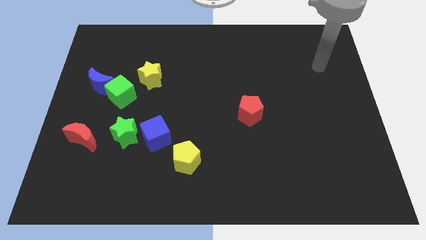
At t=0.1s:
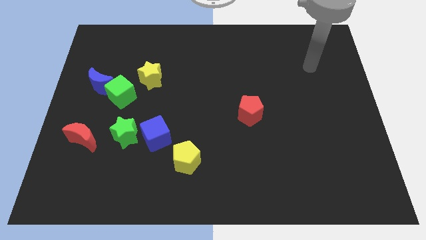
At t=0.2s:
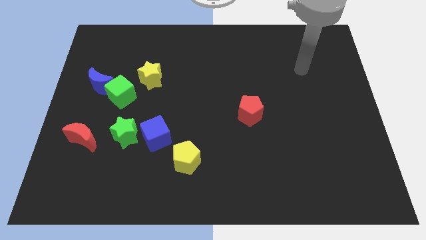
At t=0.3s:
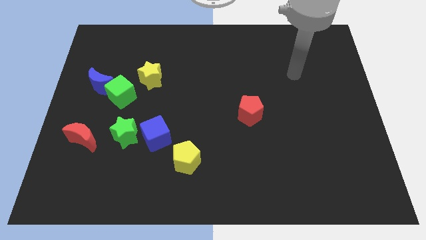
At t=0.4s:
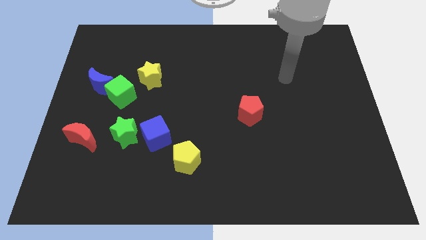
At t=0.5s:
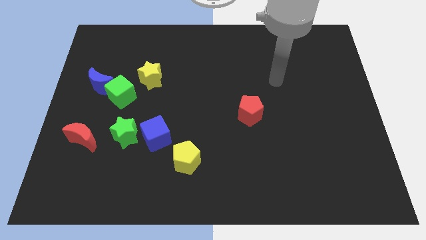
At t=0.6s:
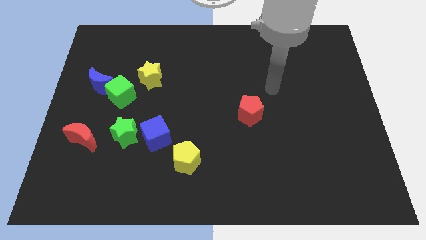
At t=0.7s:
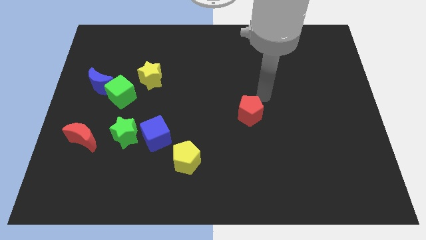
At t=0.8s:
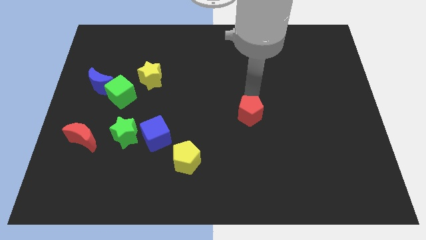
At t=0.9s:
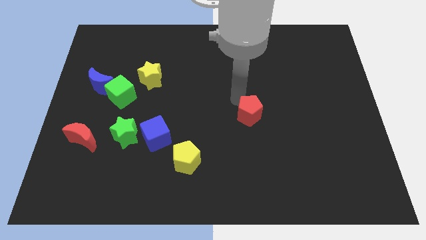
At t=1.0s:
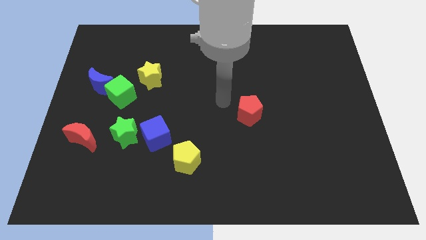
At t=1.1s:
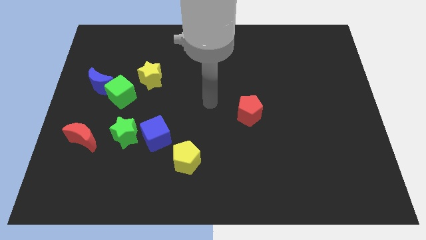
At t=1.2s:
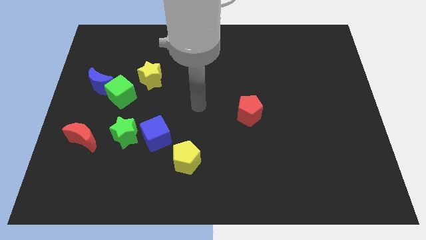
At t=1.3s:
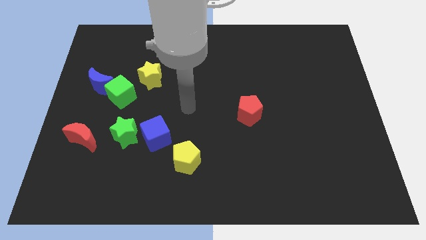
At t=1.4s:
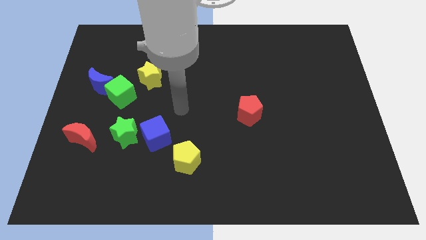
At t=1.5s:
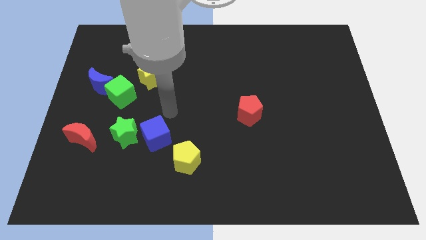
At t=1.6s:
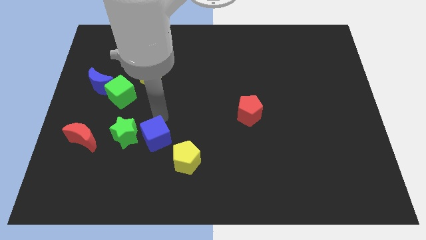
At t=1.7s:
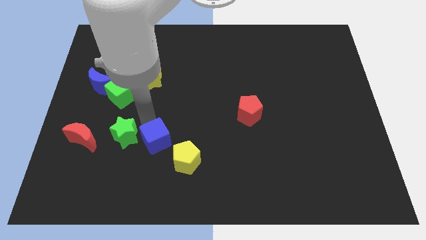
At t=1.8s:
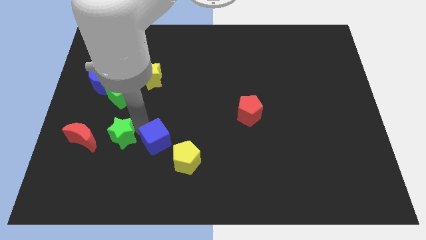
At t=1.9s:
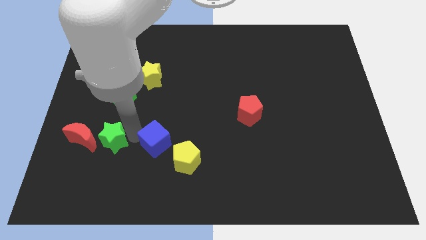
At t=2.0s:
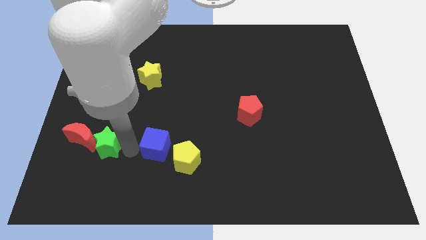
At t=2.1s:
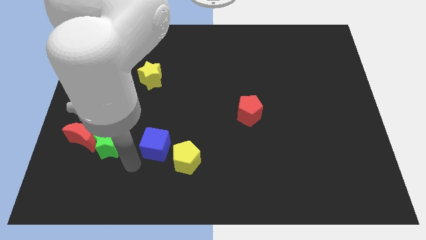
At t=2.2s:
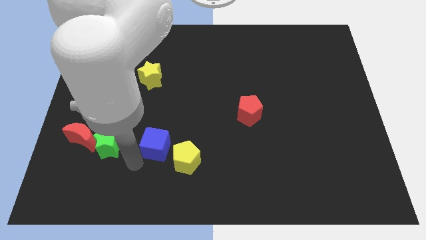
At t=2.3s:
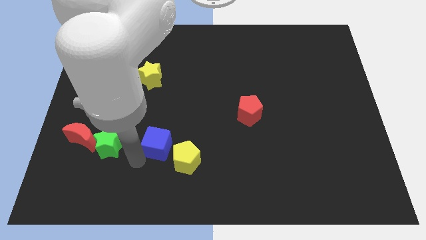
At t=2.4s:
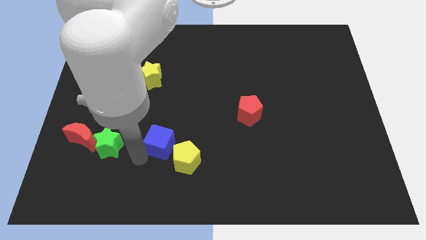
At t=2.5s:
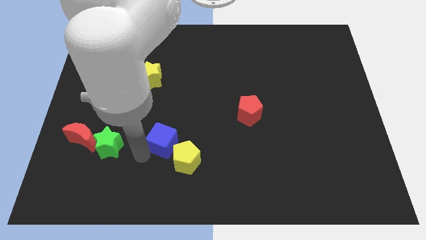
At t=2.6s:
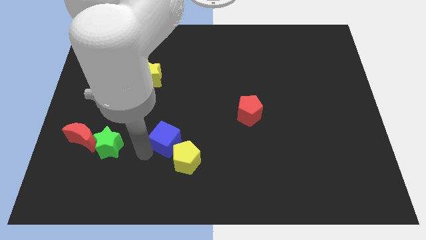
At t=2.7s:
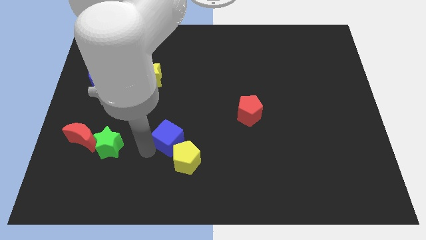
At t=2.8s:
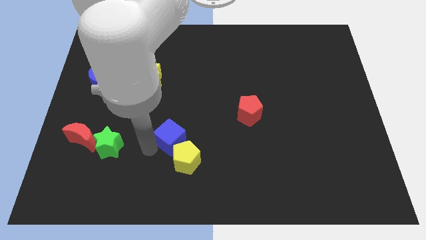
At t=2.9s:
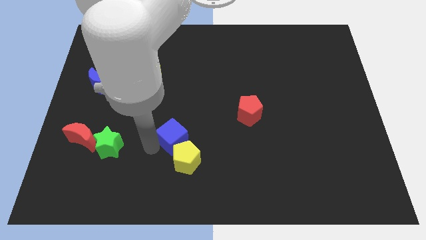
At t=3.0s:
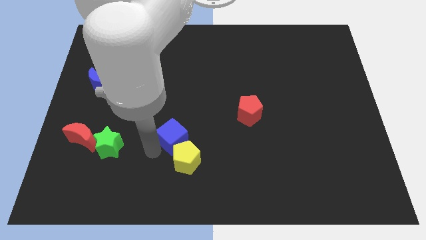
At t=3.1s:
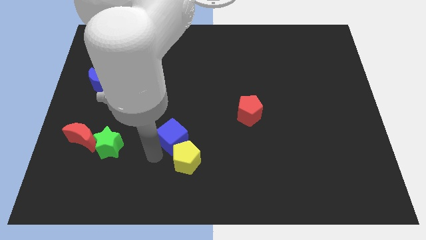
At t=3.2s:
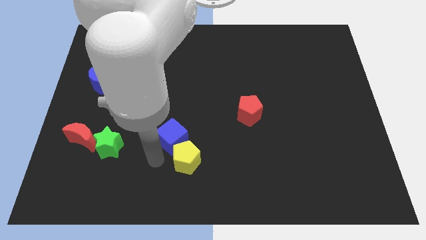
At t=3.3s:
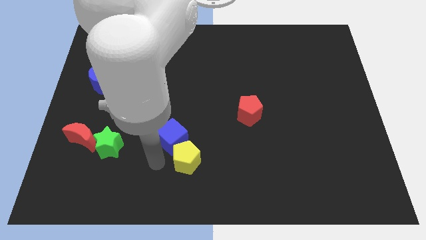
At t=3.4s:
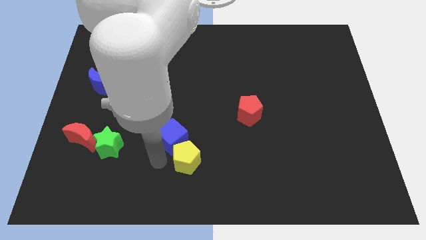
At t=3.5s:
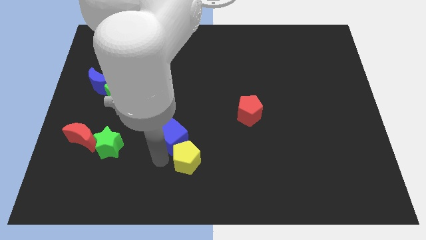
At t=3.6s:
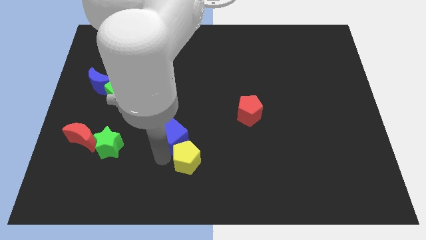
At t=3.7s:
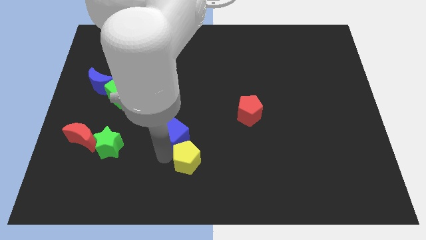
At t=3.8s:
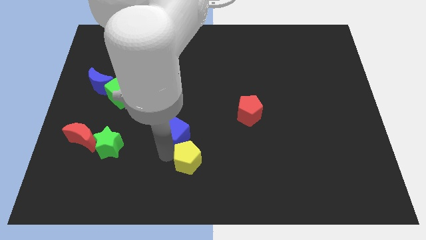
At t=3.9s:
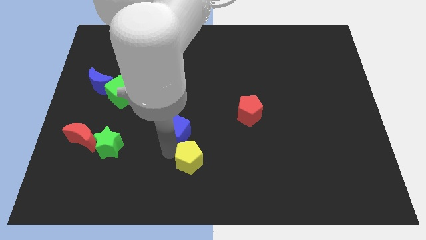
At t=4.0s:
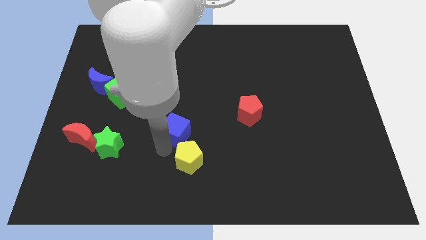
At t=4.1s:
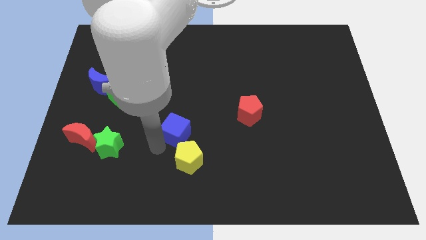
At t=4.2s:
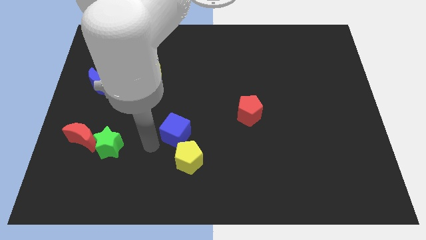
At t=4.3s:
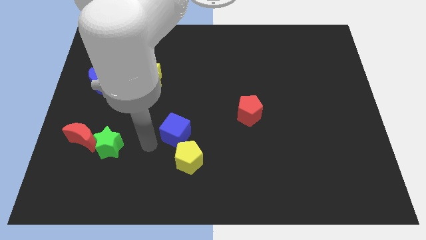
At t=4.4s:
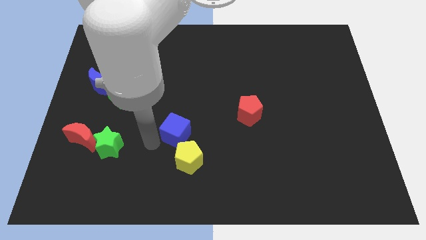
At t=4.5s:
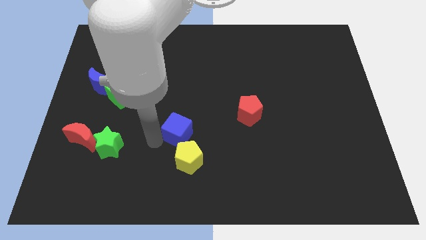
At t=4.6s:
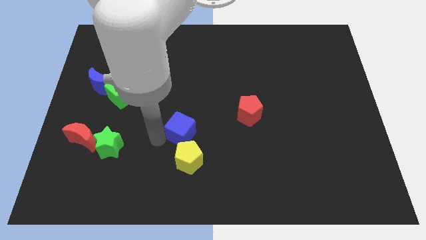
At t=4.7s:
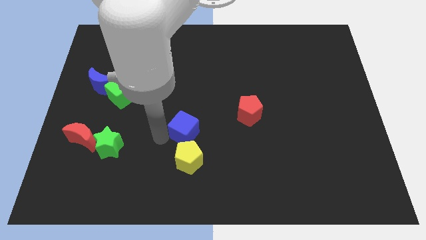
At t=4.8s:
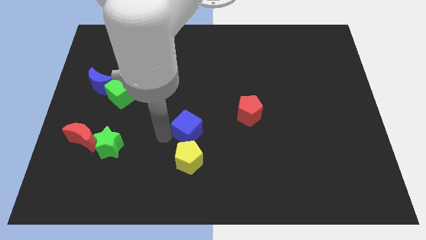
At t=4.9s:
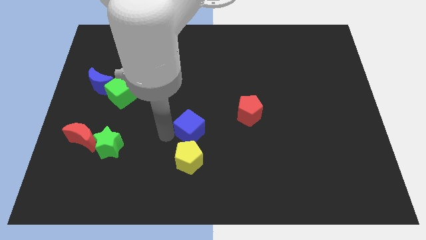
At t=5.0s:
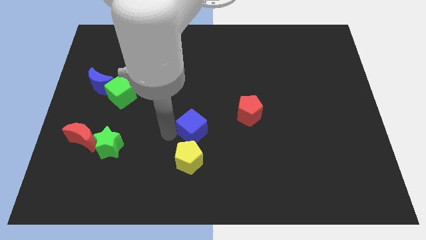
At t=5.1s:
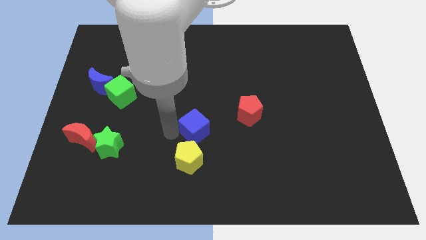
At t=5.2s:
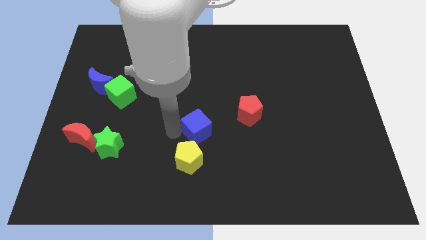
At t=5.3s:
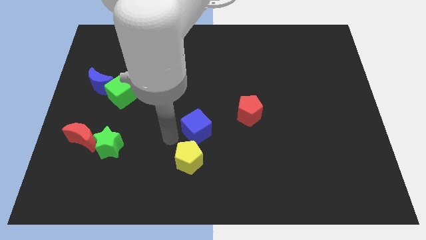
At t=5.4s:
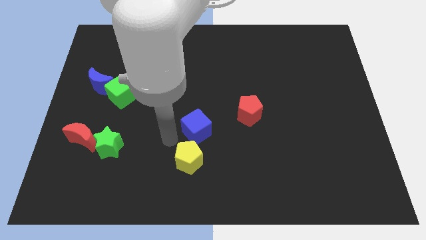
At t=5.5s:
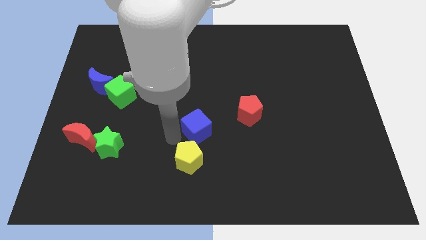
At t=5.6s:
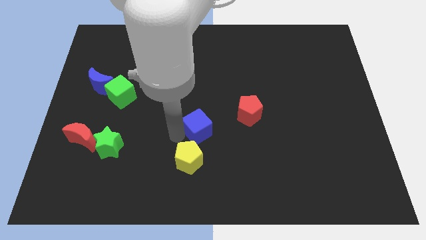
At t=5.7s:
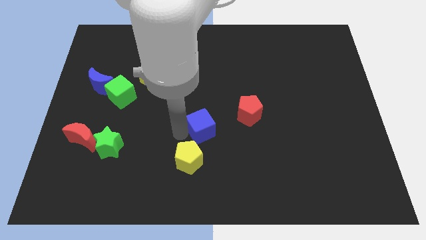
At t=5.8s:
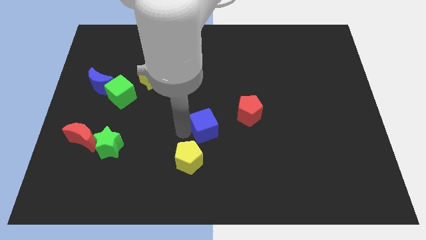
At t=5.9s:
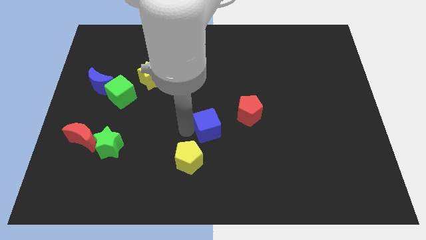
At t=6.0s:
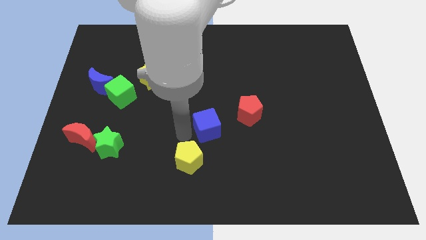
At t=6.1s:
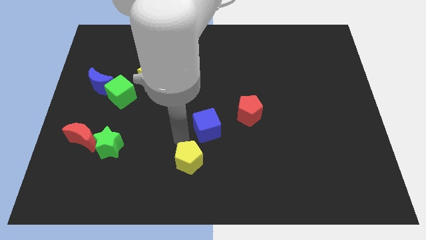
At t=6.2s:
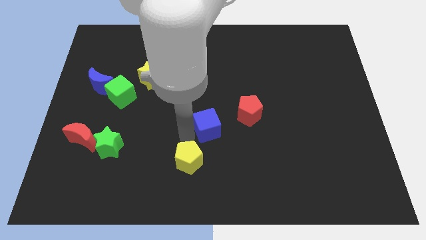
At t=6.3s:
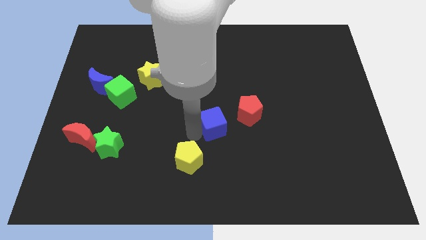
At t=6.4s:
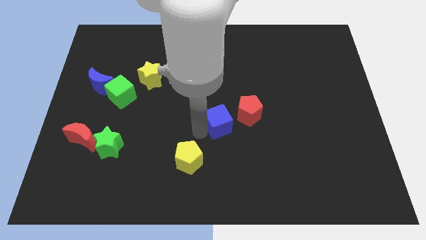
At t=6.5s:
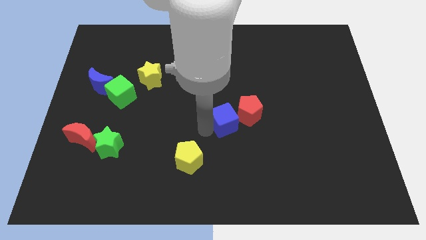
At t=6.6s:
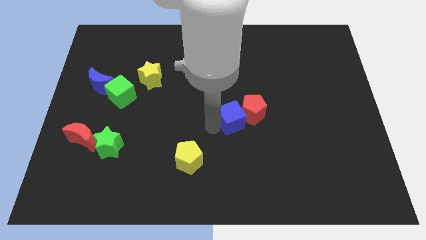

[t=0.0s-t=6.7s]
slide the blue cube close to the red pentagon

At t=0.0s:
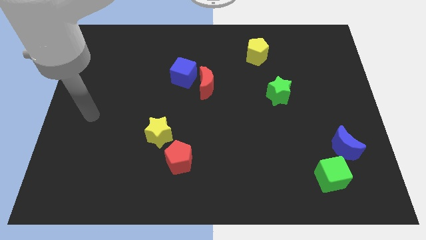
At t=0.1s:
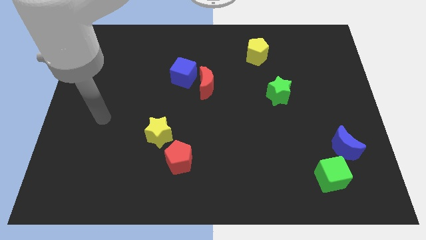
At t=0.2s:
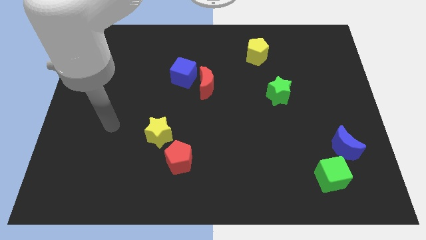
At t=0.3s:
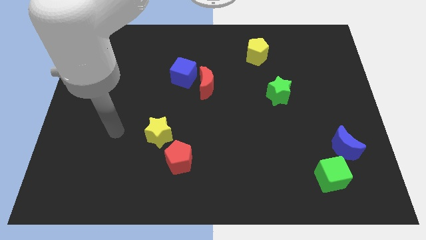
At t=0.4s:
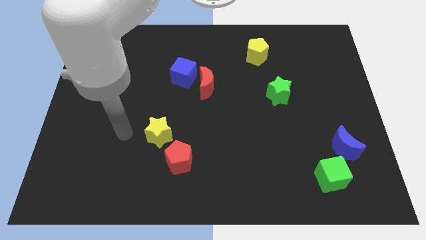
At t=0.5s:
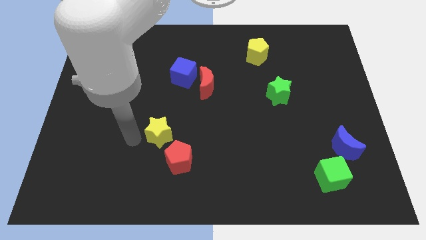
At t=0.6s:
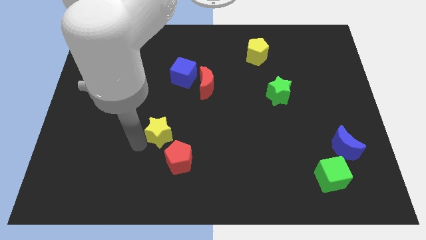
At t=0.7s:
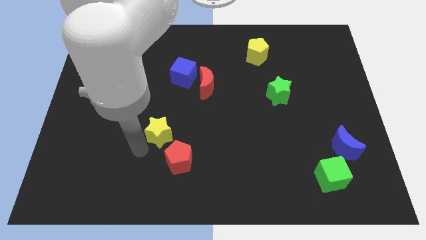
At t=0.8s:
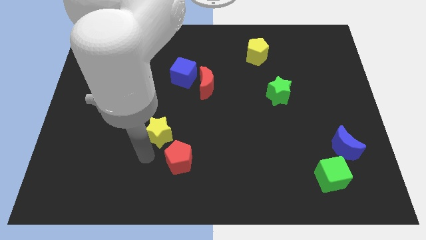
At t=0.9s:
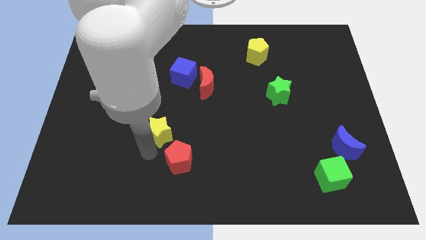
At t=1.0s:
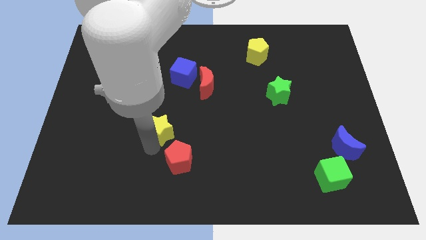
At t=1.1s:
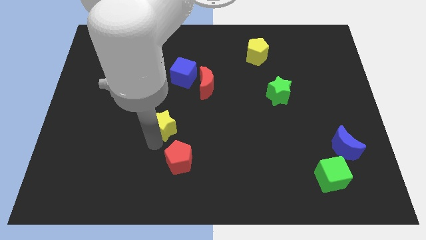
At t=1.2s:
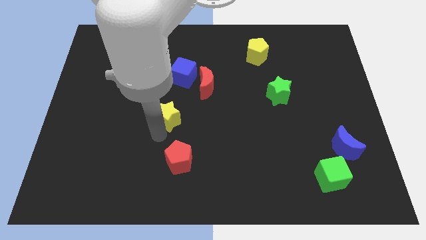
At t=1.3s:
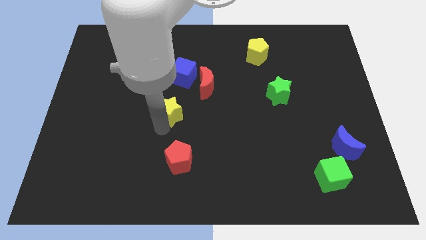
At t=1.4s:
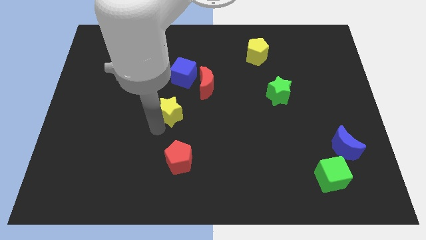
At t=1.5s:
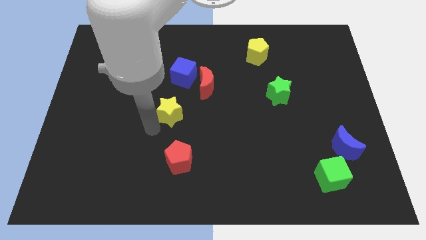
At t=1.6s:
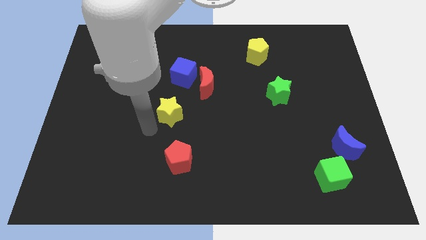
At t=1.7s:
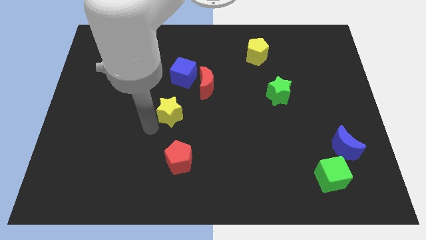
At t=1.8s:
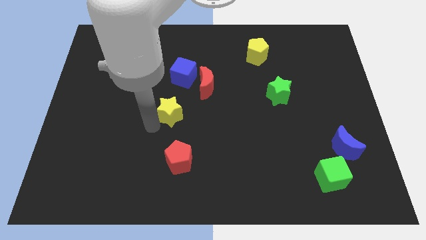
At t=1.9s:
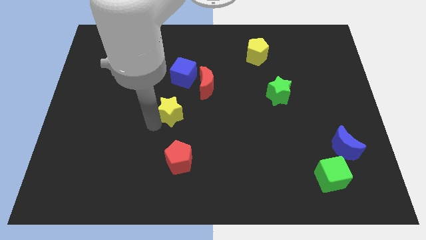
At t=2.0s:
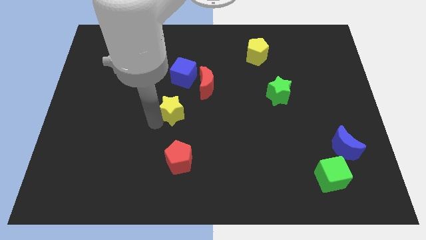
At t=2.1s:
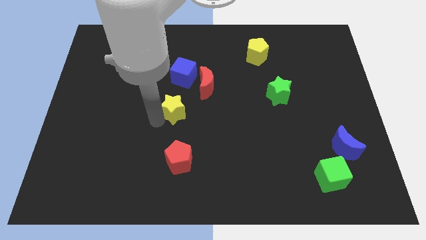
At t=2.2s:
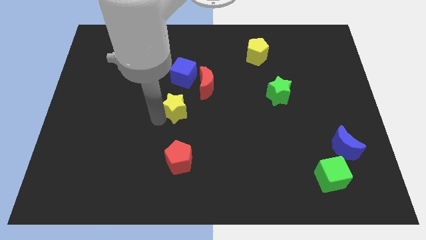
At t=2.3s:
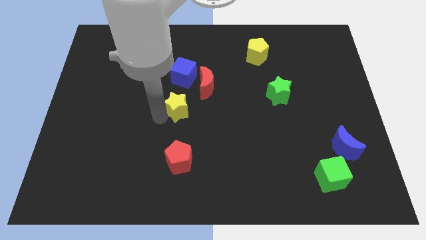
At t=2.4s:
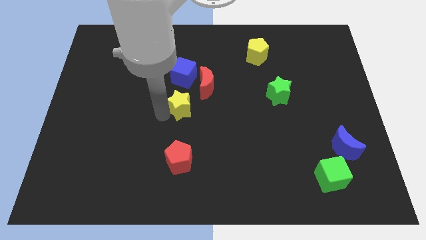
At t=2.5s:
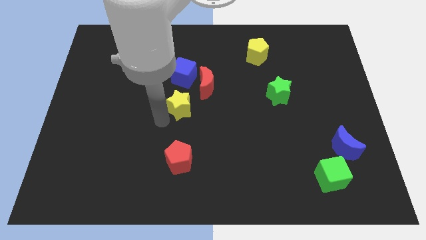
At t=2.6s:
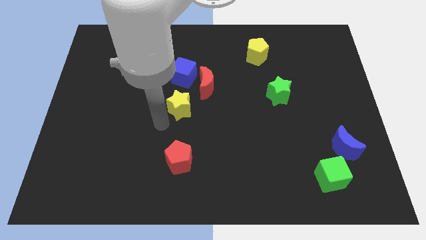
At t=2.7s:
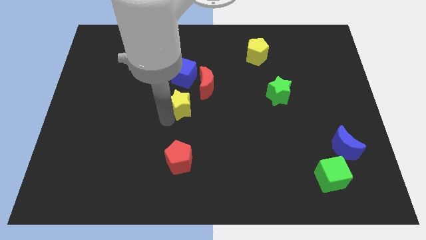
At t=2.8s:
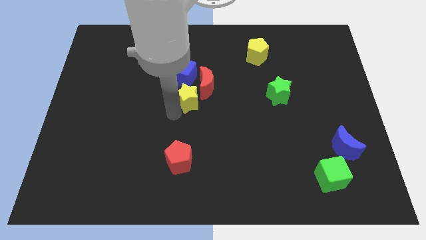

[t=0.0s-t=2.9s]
put the yellow star close to the red moon
